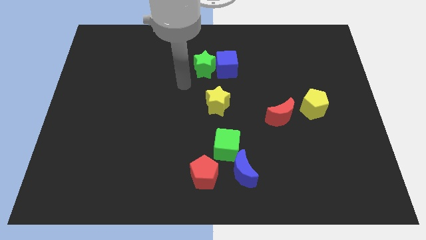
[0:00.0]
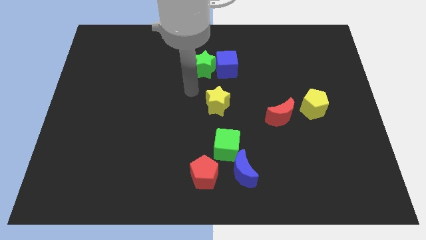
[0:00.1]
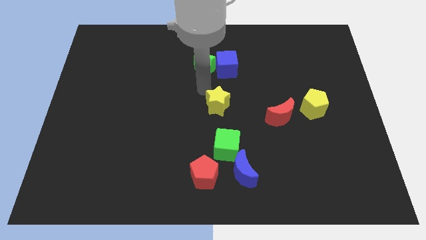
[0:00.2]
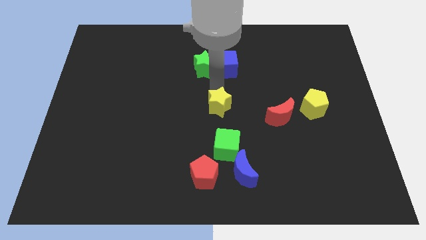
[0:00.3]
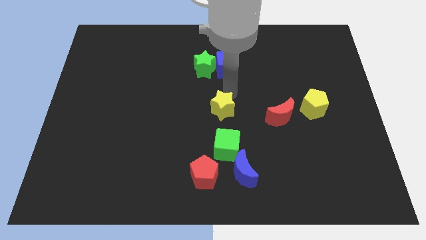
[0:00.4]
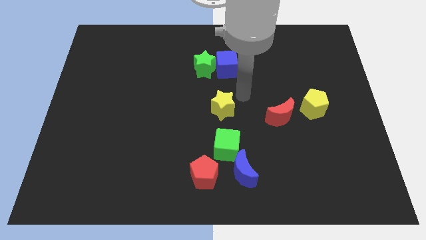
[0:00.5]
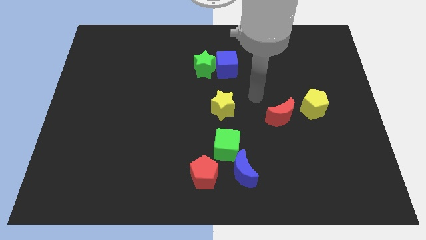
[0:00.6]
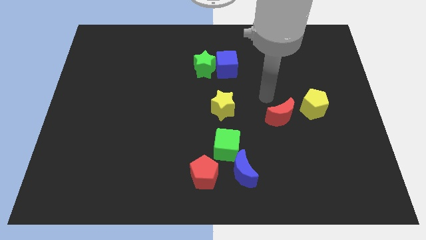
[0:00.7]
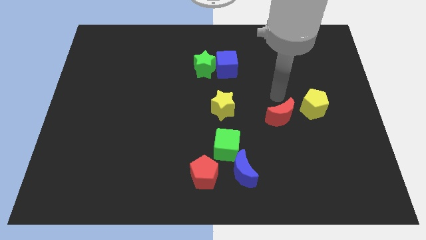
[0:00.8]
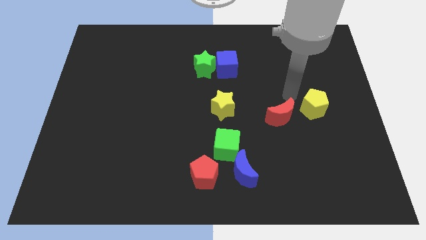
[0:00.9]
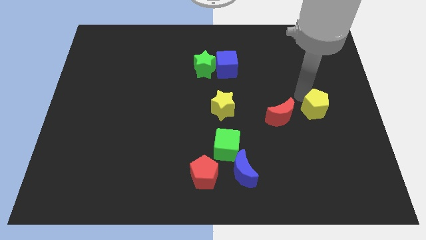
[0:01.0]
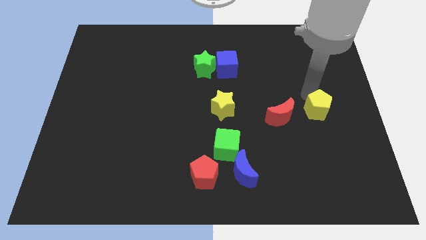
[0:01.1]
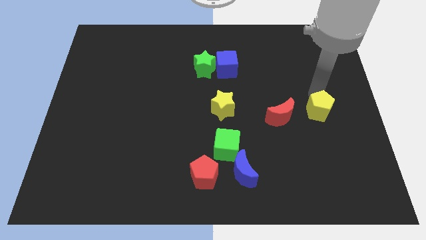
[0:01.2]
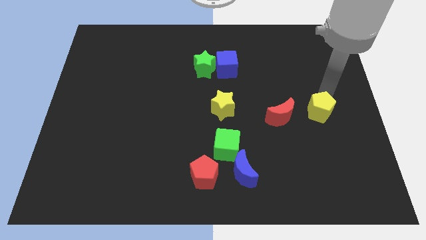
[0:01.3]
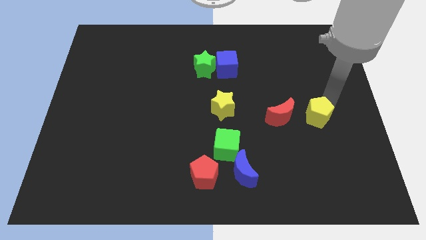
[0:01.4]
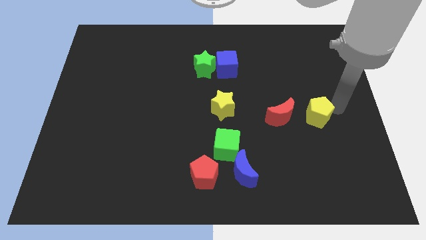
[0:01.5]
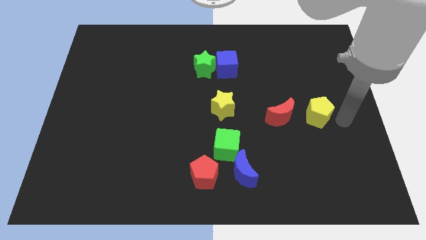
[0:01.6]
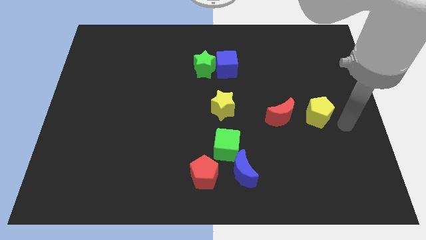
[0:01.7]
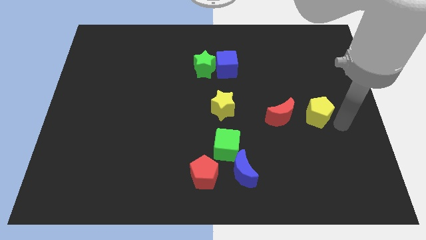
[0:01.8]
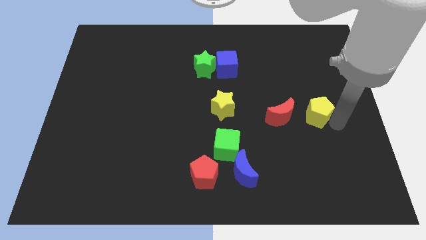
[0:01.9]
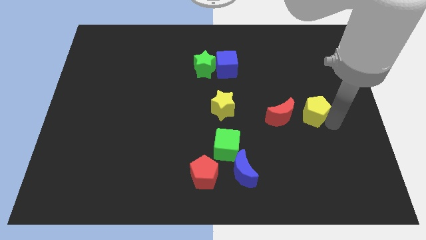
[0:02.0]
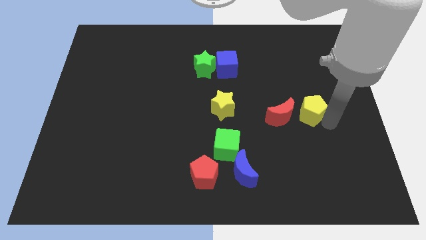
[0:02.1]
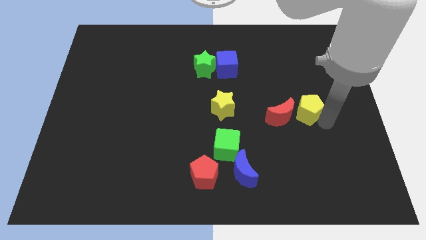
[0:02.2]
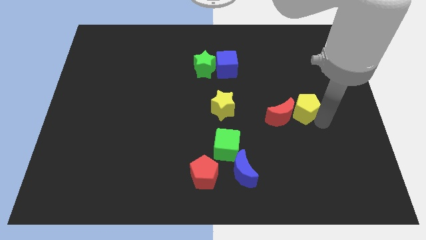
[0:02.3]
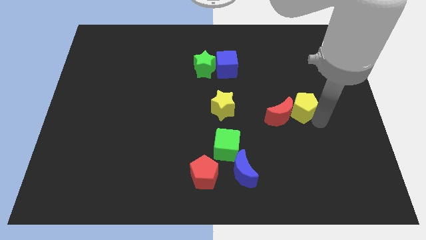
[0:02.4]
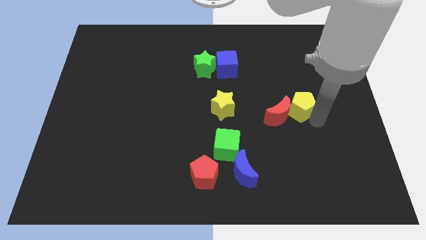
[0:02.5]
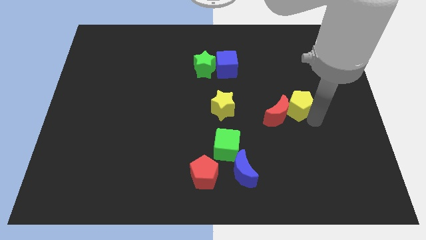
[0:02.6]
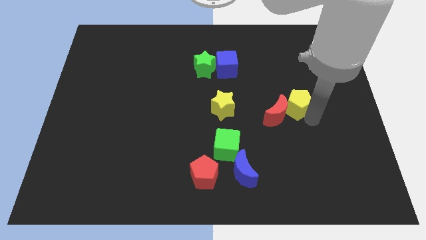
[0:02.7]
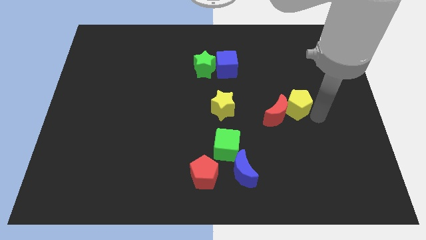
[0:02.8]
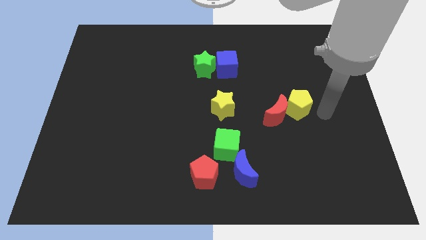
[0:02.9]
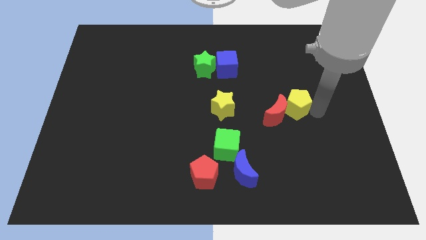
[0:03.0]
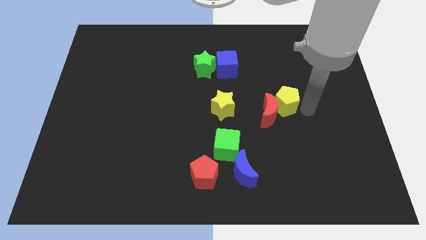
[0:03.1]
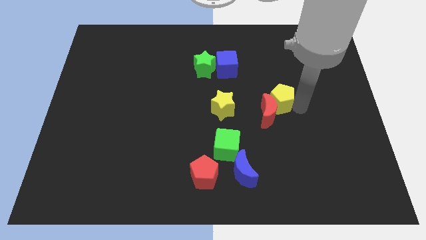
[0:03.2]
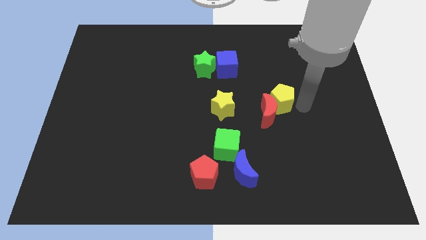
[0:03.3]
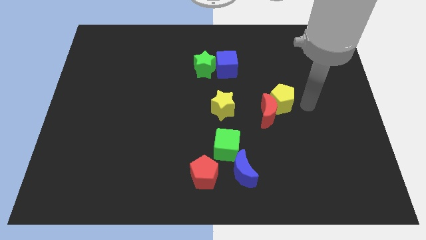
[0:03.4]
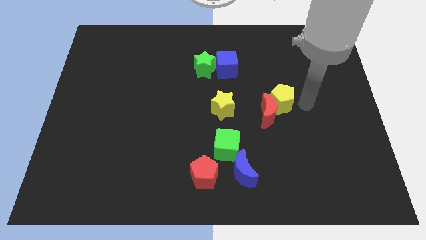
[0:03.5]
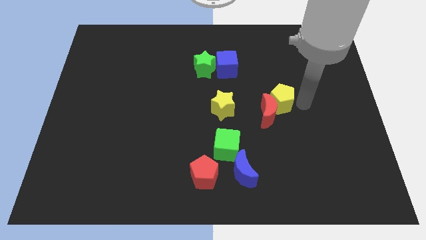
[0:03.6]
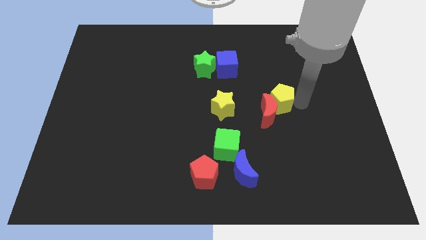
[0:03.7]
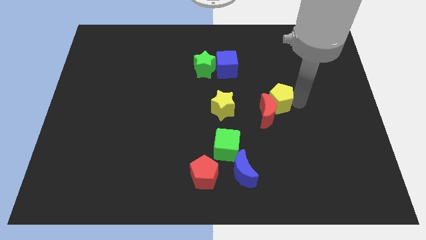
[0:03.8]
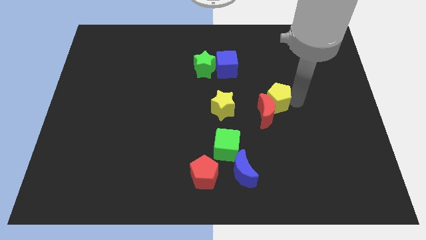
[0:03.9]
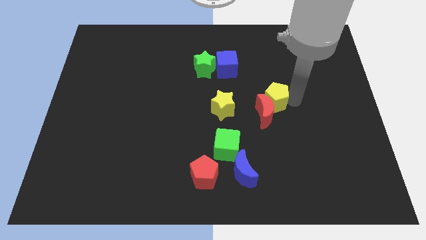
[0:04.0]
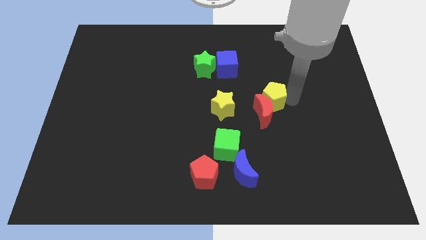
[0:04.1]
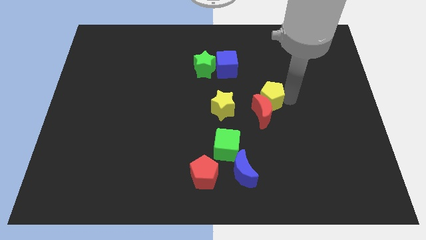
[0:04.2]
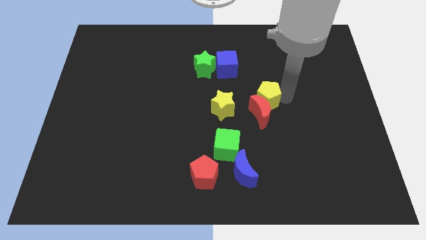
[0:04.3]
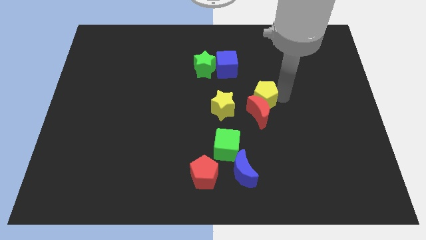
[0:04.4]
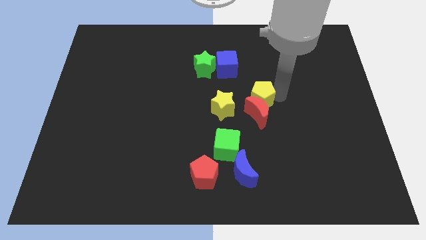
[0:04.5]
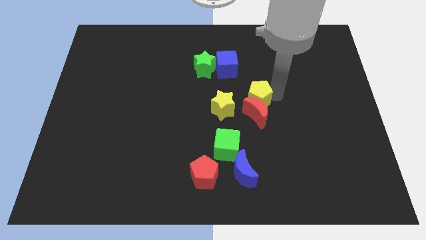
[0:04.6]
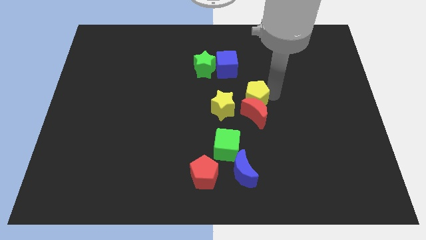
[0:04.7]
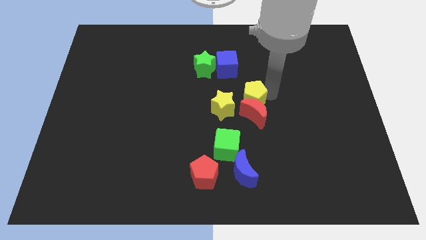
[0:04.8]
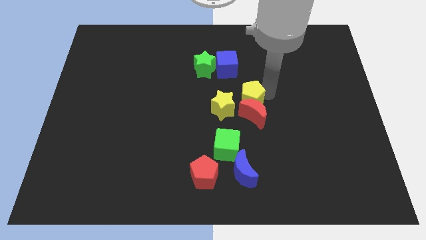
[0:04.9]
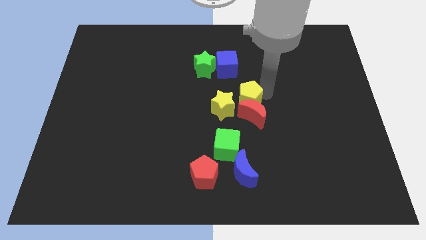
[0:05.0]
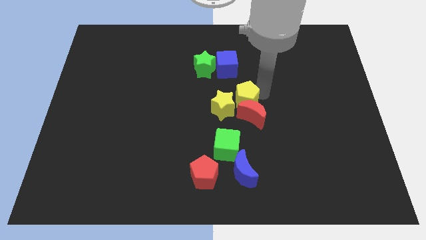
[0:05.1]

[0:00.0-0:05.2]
put the yellow pentagon towards the yellow star

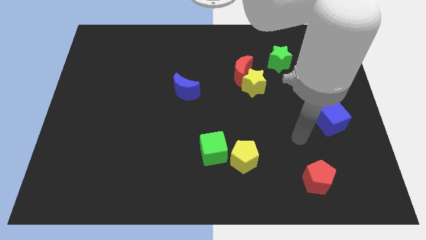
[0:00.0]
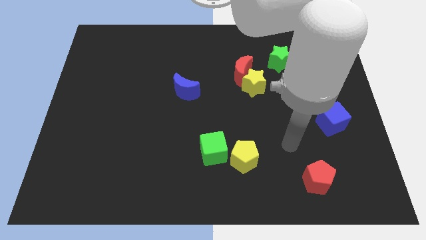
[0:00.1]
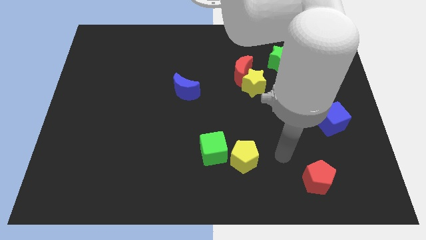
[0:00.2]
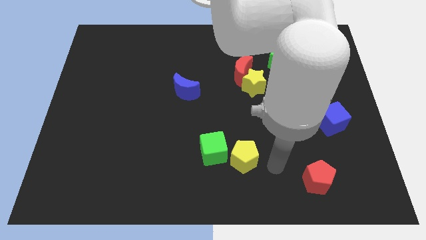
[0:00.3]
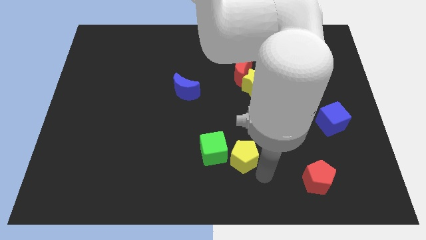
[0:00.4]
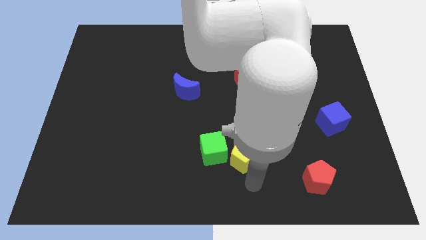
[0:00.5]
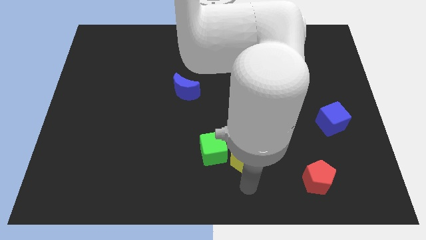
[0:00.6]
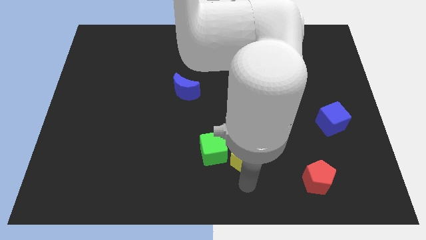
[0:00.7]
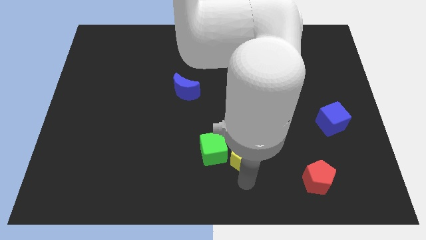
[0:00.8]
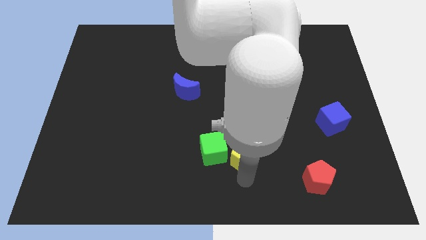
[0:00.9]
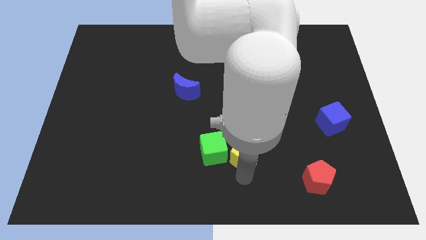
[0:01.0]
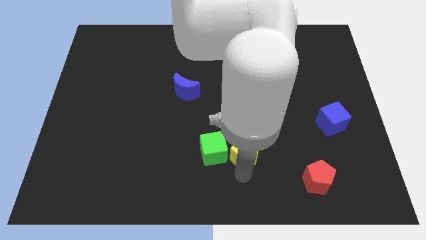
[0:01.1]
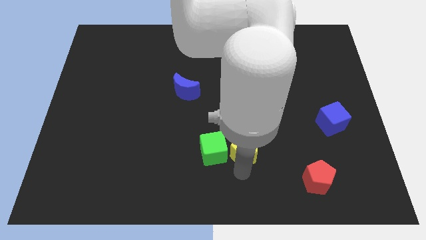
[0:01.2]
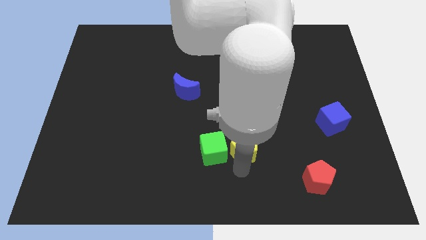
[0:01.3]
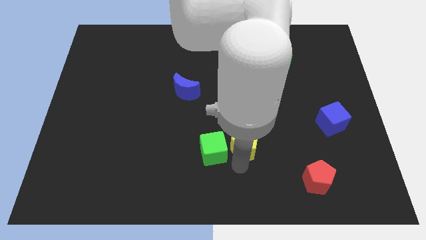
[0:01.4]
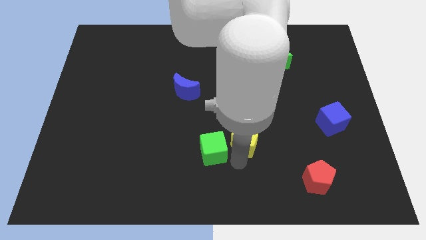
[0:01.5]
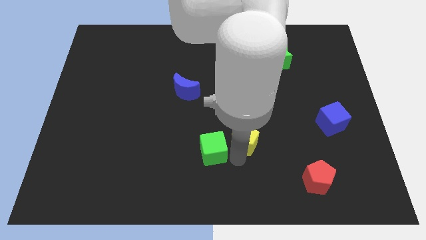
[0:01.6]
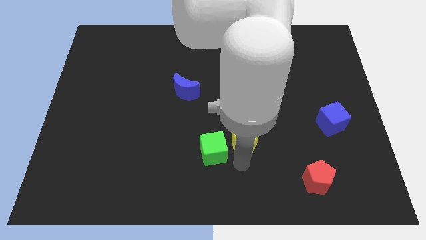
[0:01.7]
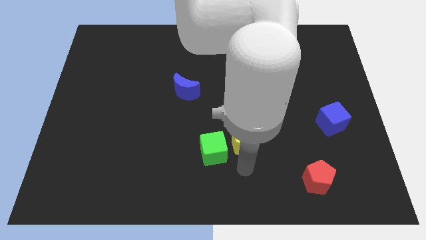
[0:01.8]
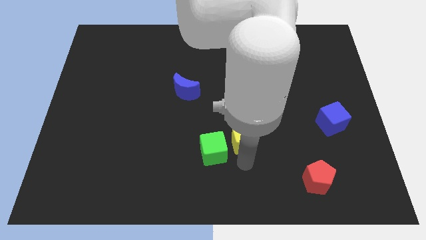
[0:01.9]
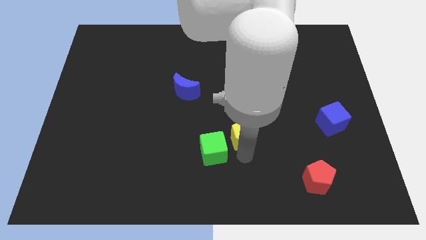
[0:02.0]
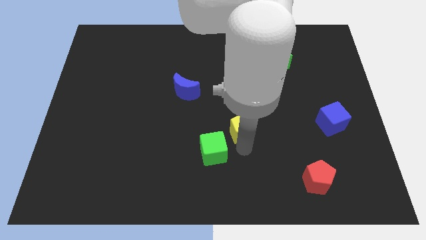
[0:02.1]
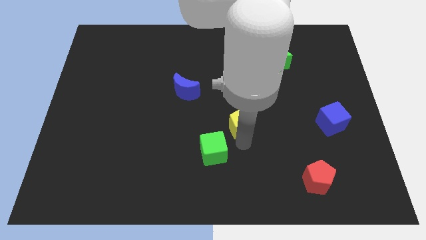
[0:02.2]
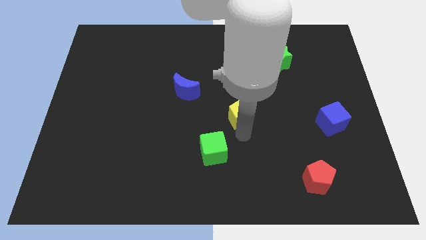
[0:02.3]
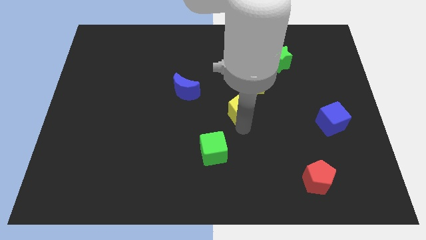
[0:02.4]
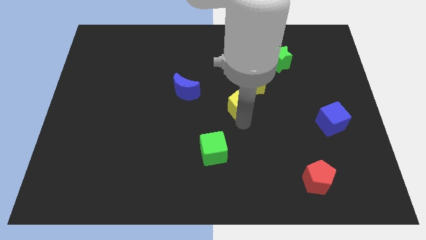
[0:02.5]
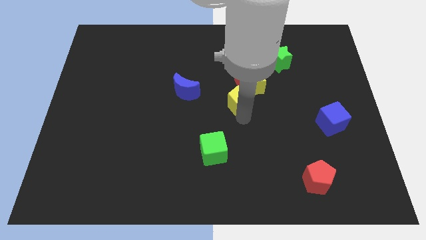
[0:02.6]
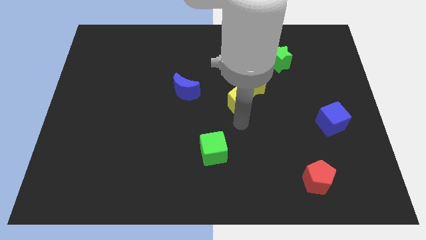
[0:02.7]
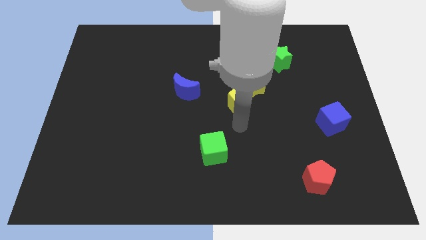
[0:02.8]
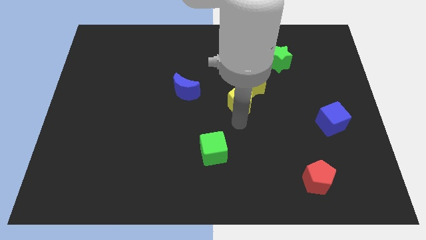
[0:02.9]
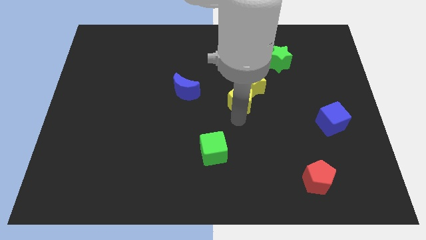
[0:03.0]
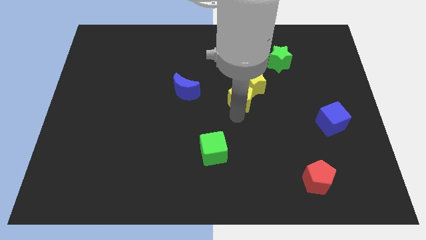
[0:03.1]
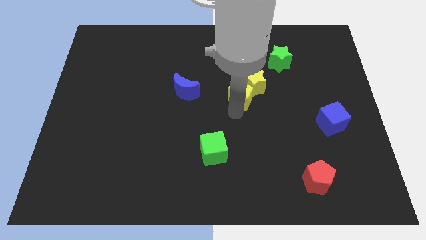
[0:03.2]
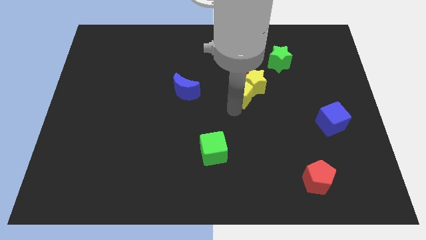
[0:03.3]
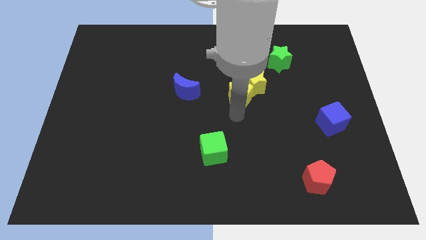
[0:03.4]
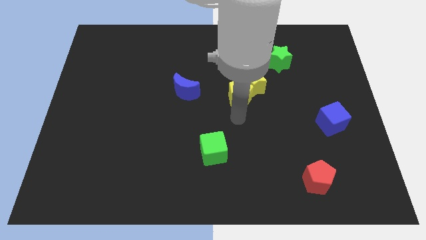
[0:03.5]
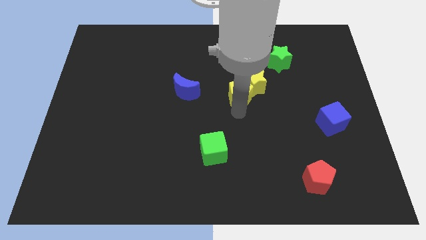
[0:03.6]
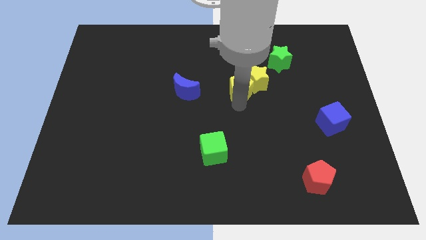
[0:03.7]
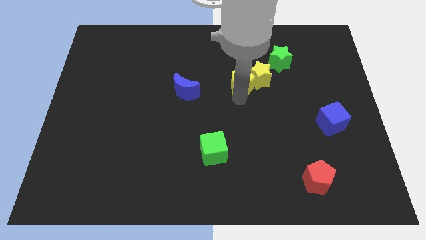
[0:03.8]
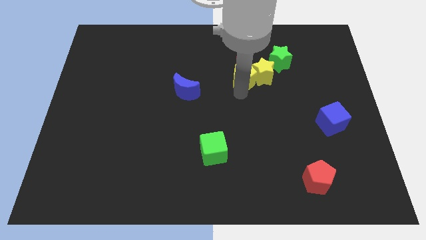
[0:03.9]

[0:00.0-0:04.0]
push the yellow pentagon towards the red moon
